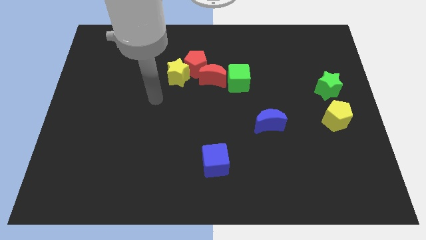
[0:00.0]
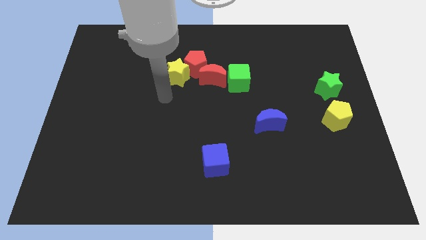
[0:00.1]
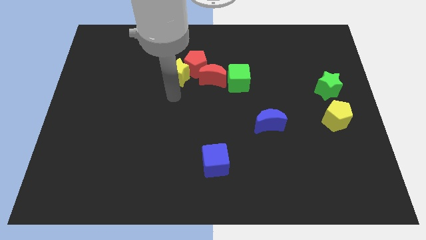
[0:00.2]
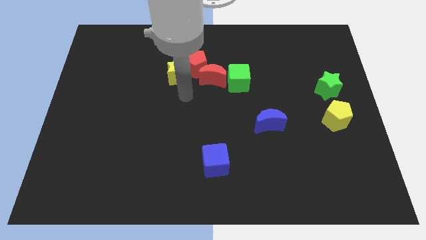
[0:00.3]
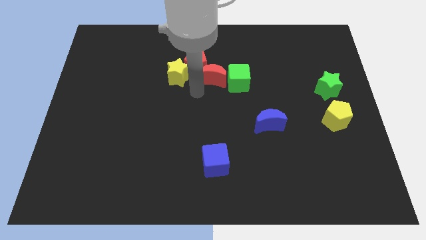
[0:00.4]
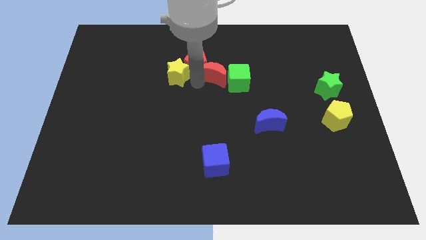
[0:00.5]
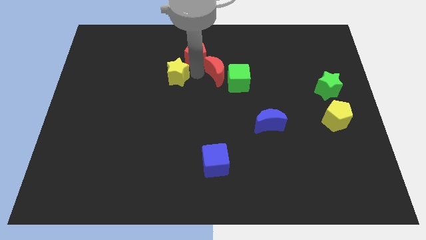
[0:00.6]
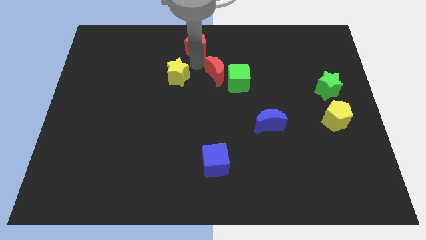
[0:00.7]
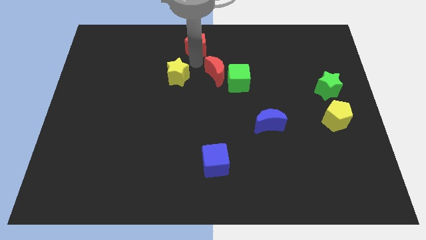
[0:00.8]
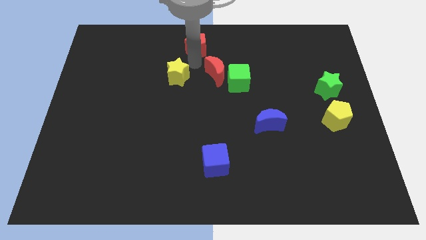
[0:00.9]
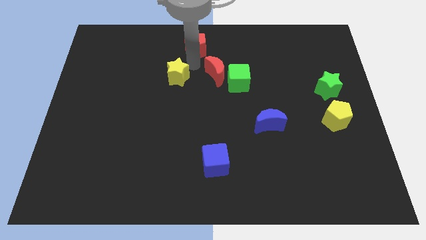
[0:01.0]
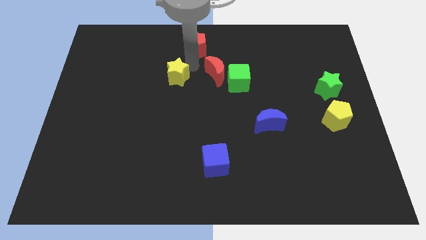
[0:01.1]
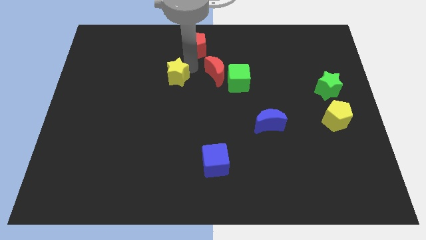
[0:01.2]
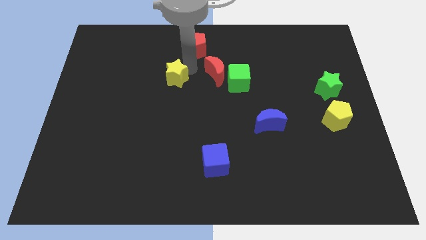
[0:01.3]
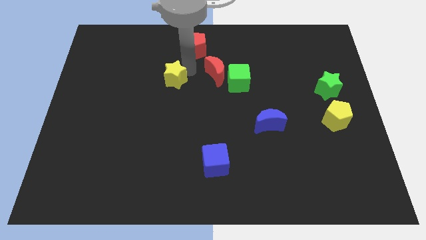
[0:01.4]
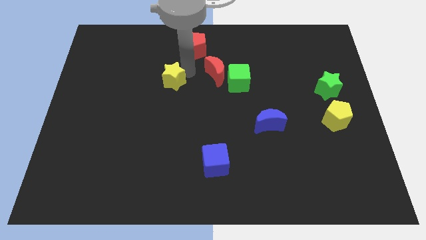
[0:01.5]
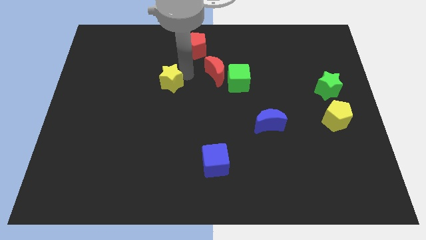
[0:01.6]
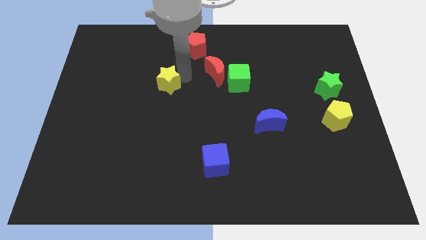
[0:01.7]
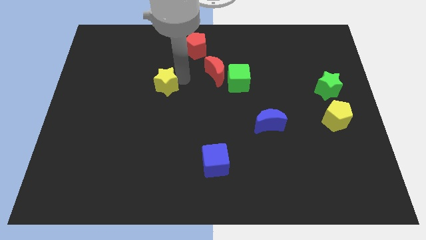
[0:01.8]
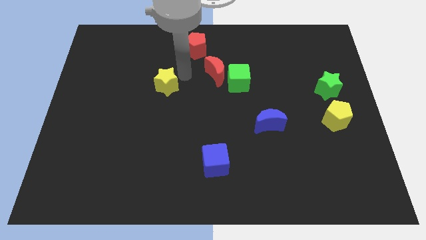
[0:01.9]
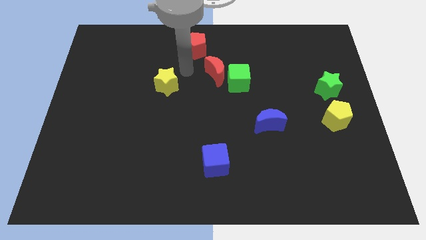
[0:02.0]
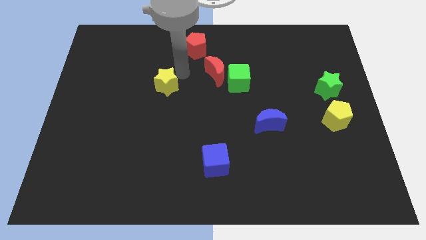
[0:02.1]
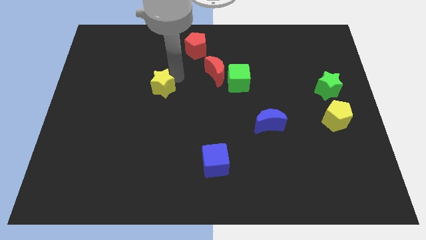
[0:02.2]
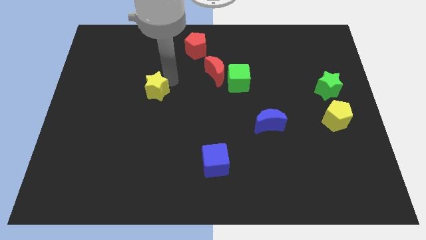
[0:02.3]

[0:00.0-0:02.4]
push the yellow star diagonally downwards and to the left a bit

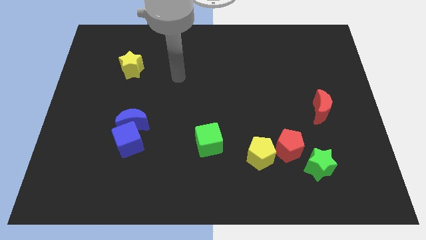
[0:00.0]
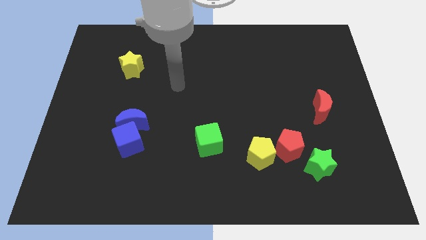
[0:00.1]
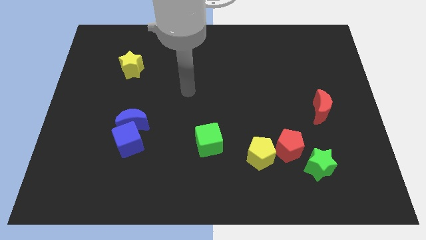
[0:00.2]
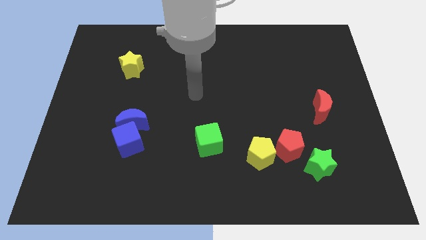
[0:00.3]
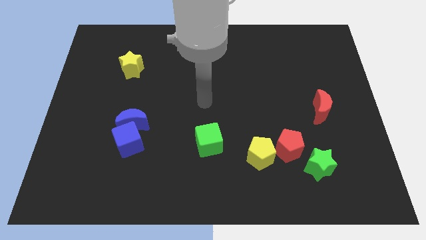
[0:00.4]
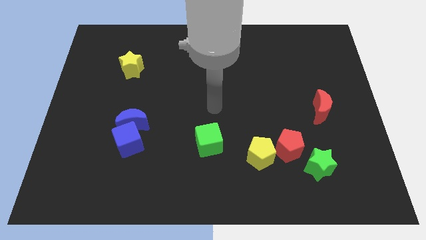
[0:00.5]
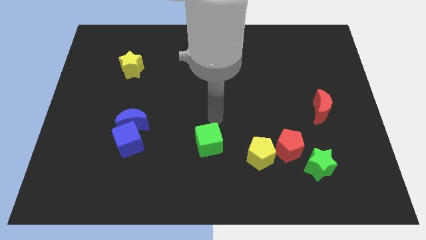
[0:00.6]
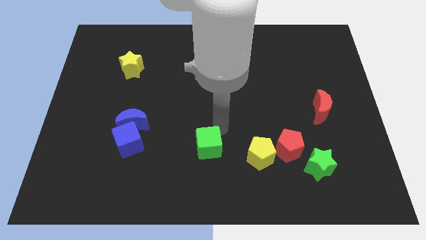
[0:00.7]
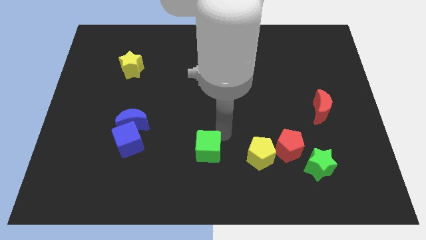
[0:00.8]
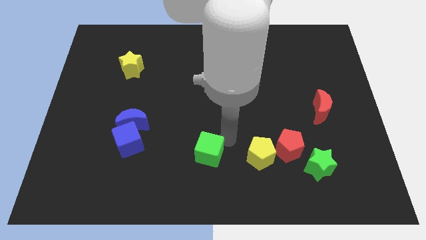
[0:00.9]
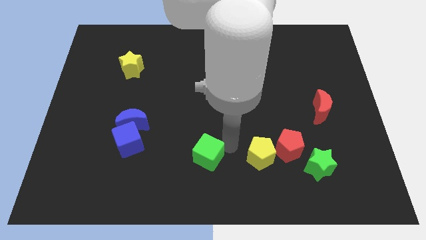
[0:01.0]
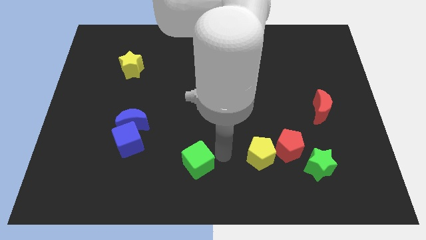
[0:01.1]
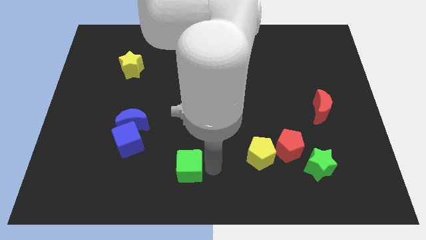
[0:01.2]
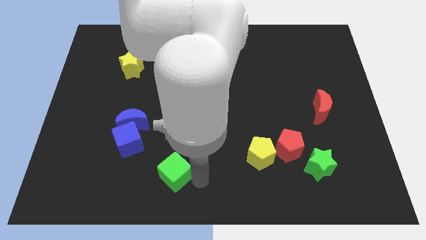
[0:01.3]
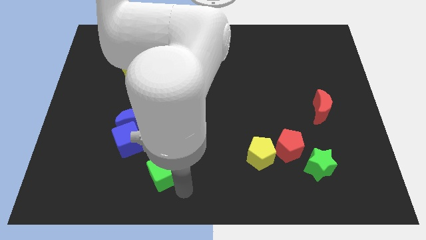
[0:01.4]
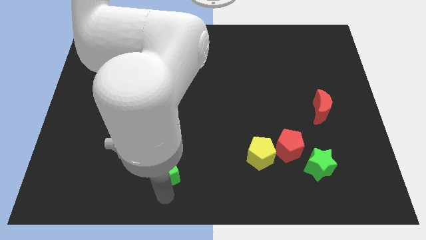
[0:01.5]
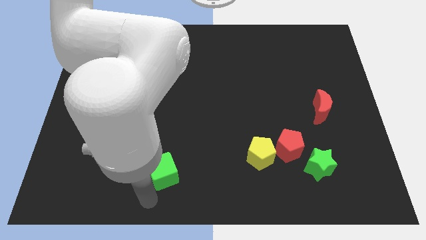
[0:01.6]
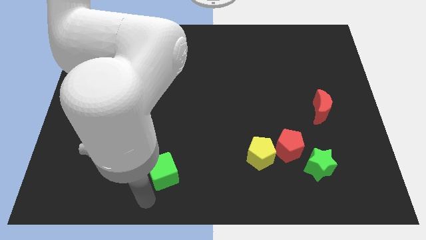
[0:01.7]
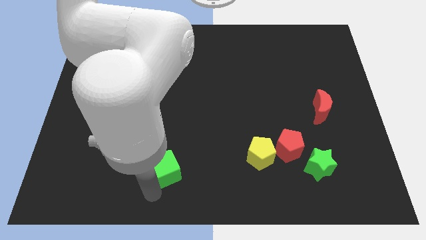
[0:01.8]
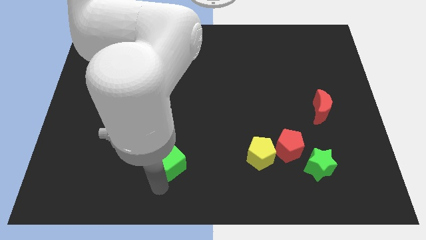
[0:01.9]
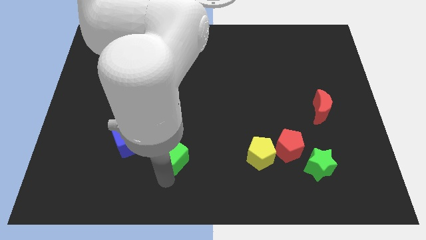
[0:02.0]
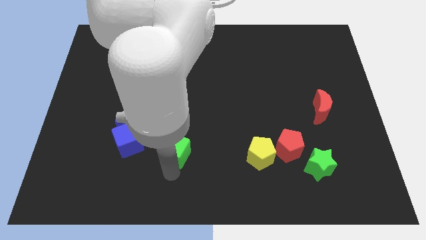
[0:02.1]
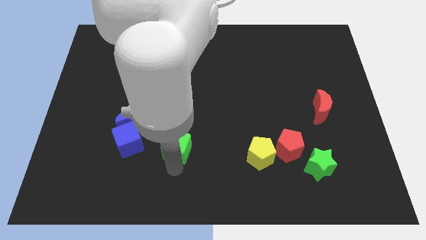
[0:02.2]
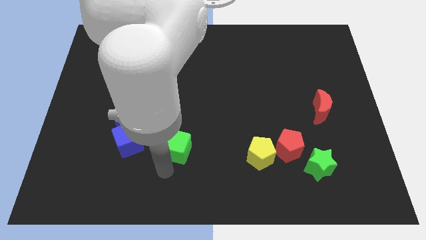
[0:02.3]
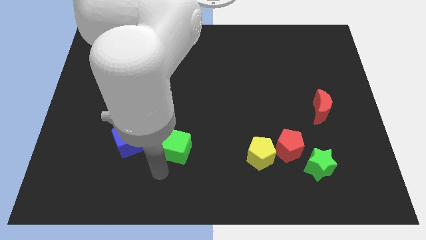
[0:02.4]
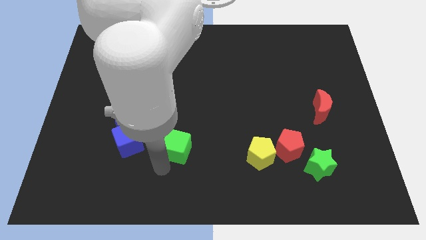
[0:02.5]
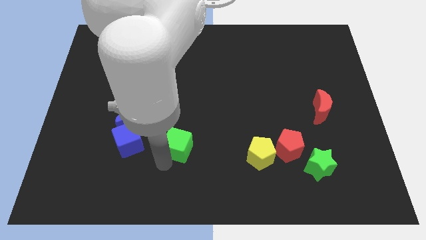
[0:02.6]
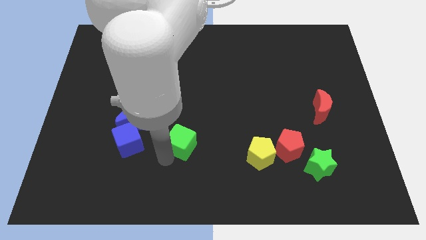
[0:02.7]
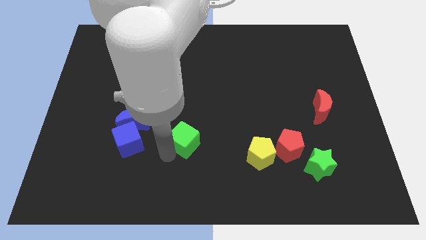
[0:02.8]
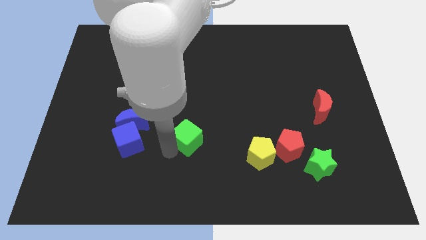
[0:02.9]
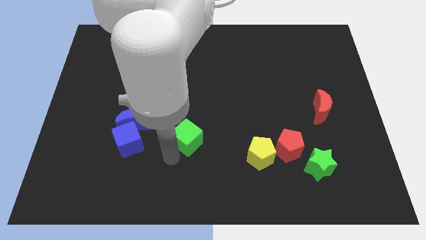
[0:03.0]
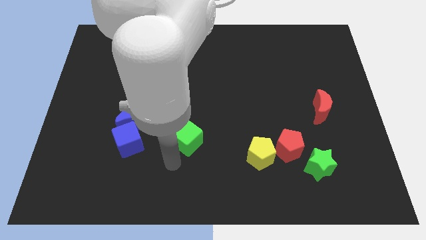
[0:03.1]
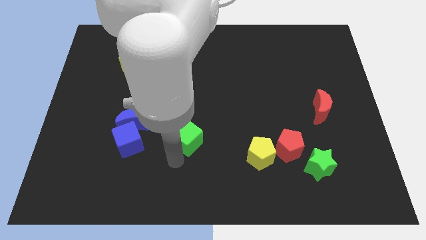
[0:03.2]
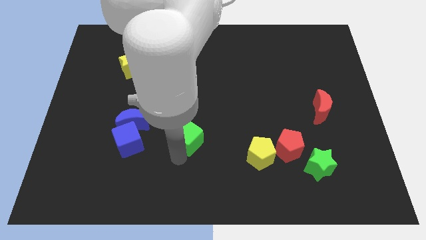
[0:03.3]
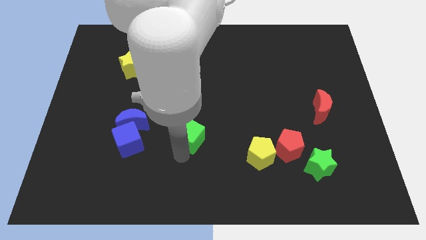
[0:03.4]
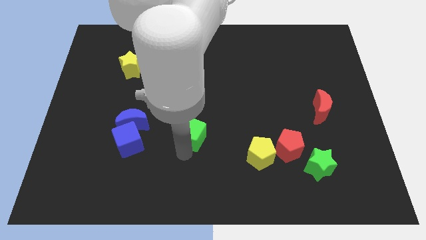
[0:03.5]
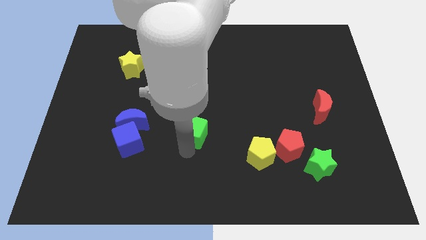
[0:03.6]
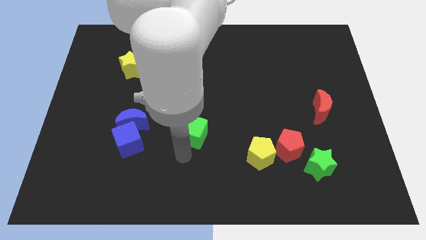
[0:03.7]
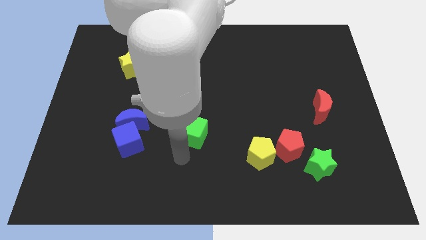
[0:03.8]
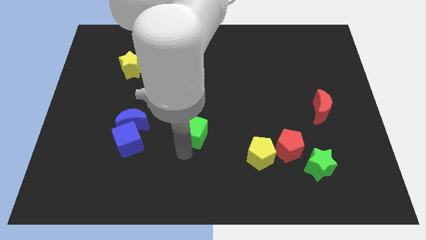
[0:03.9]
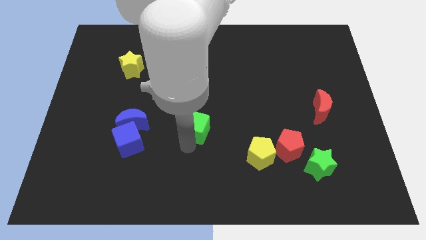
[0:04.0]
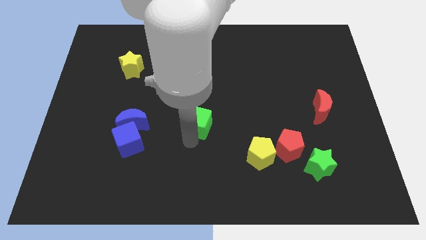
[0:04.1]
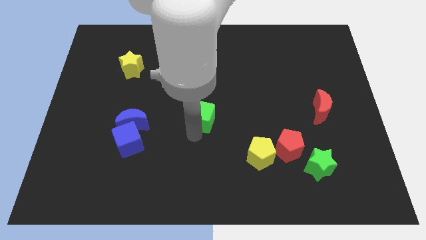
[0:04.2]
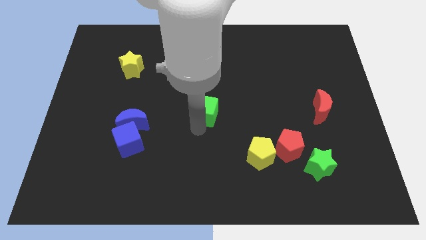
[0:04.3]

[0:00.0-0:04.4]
slightly slide the green cube upwards

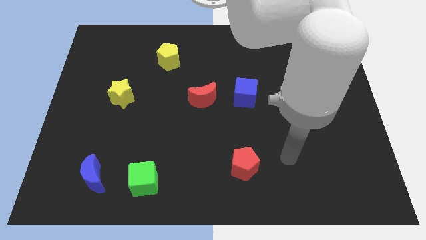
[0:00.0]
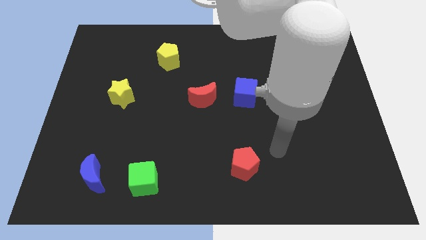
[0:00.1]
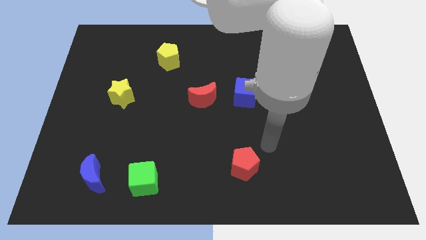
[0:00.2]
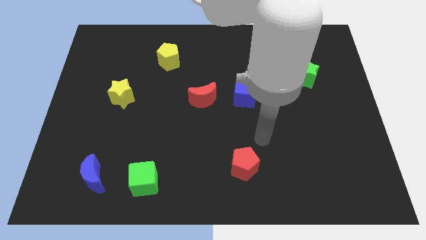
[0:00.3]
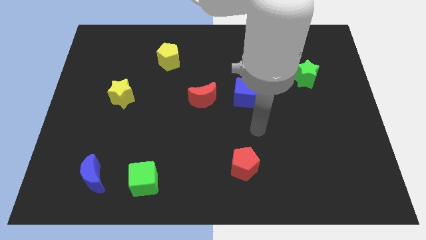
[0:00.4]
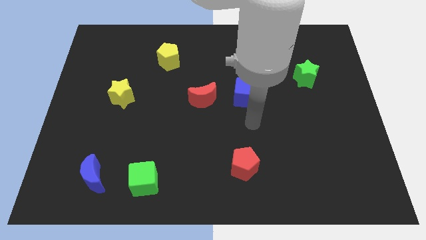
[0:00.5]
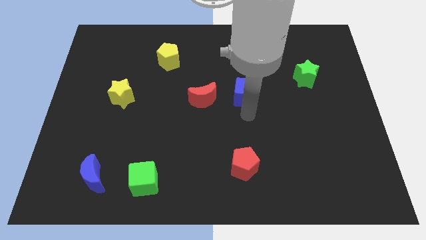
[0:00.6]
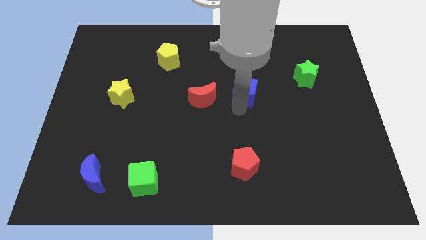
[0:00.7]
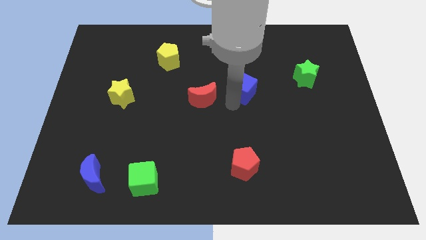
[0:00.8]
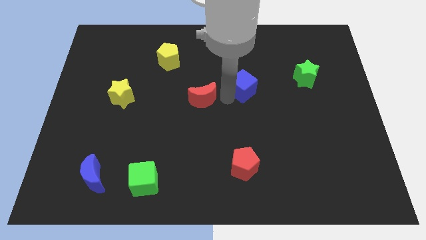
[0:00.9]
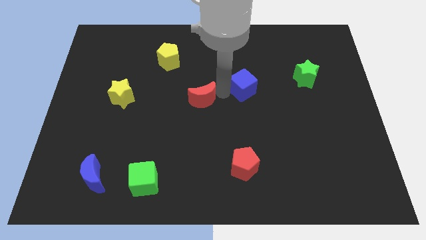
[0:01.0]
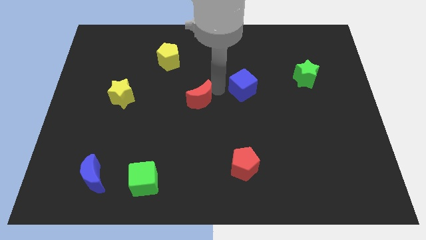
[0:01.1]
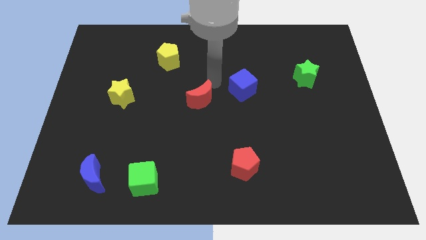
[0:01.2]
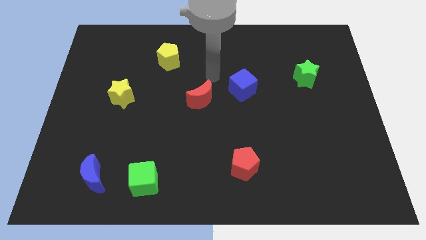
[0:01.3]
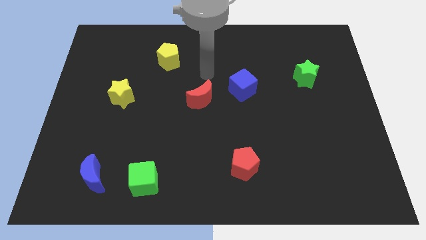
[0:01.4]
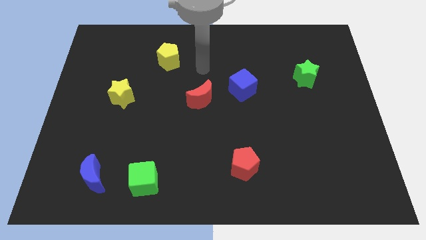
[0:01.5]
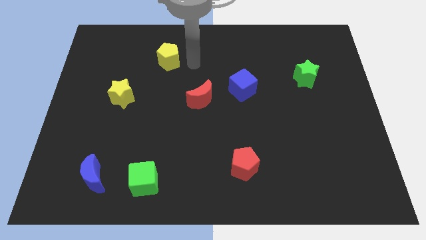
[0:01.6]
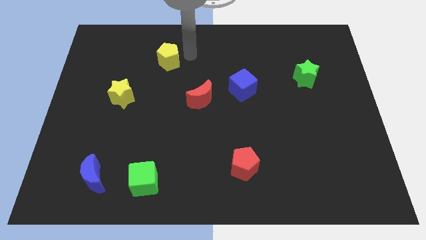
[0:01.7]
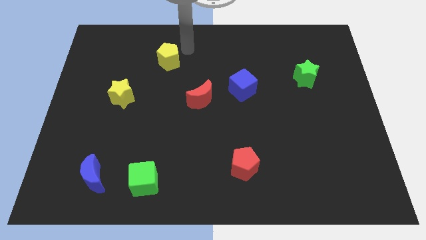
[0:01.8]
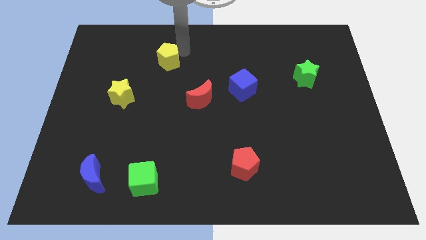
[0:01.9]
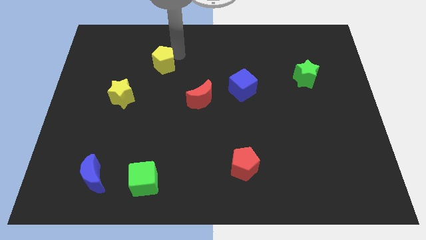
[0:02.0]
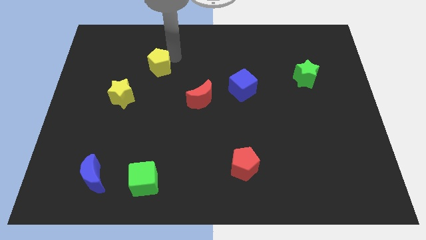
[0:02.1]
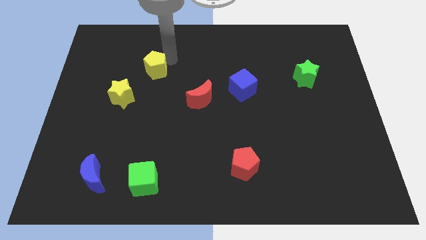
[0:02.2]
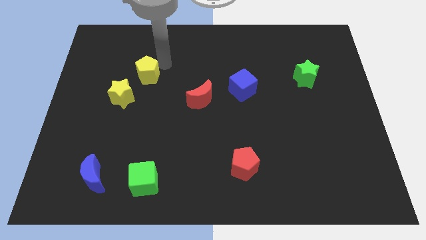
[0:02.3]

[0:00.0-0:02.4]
slide the yellow pentagon diagonally down and to the left a little bit
